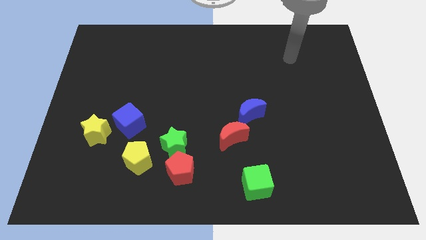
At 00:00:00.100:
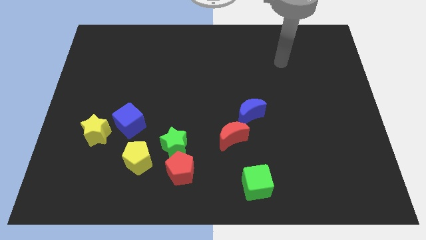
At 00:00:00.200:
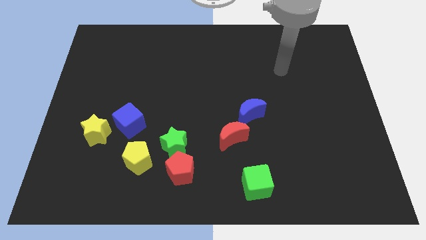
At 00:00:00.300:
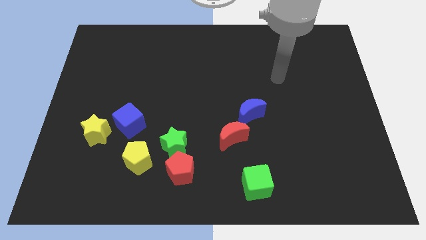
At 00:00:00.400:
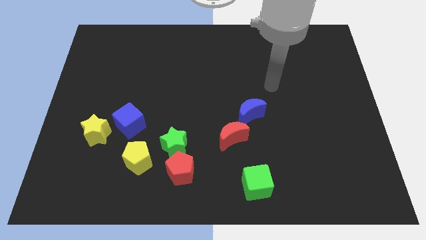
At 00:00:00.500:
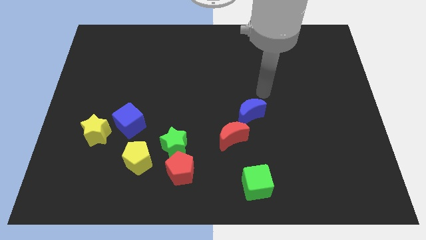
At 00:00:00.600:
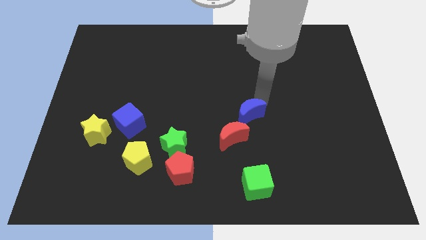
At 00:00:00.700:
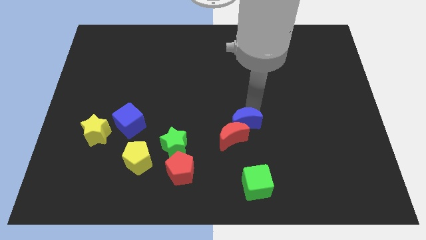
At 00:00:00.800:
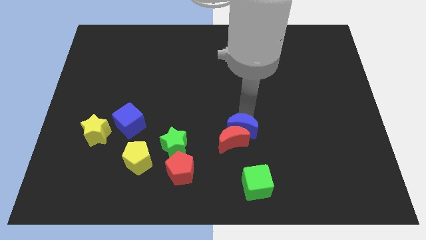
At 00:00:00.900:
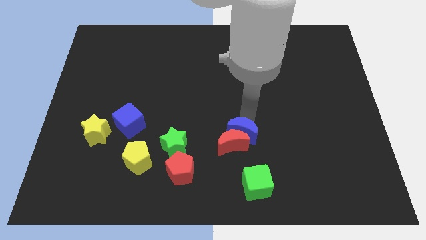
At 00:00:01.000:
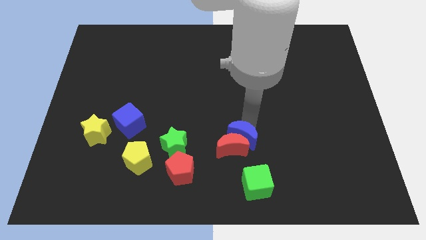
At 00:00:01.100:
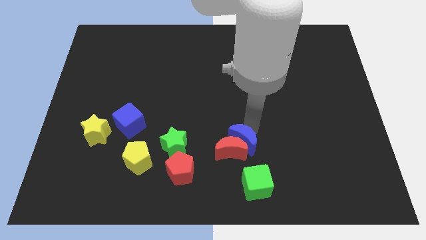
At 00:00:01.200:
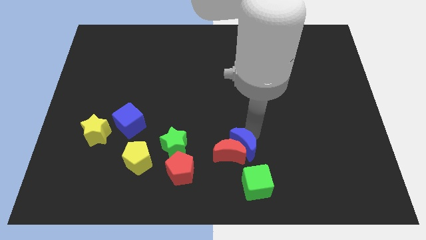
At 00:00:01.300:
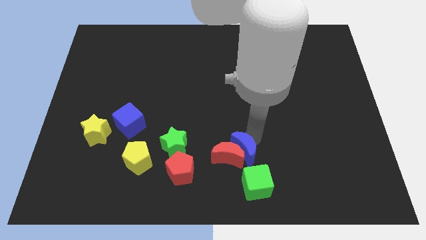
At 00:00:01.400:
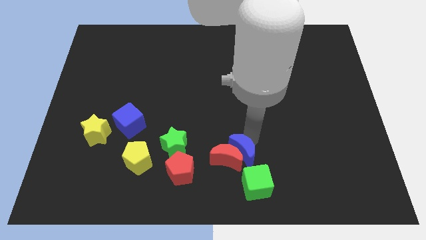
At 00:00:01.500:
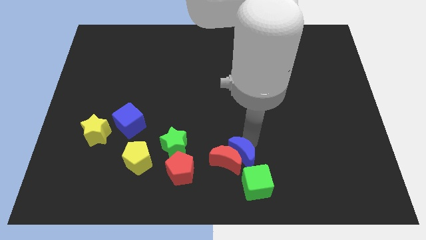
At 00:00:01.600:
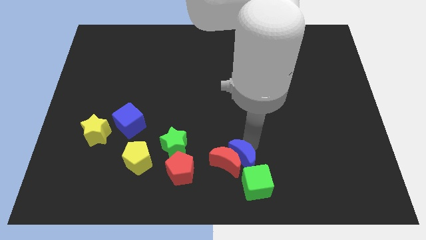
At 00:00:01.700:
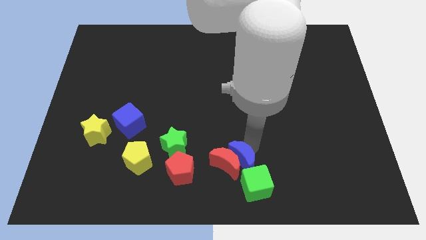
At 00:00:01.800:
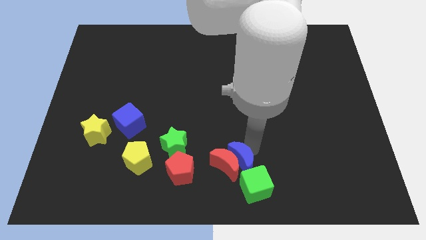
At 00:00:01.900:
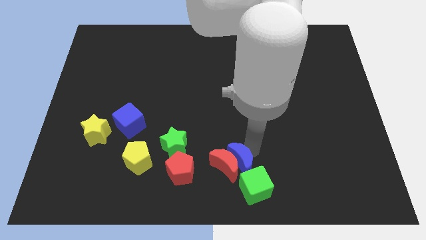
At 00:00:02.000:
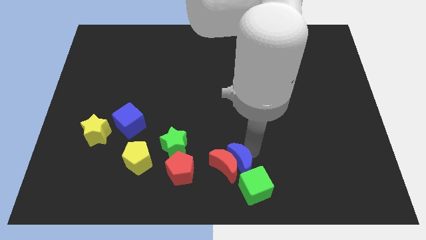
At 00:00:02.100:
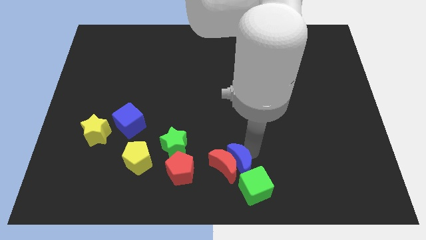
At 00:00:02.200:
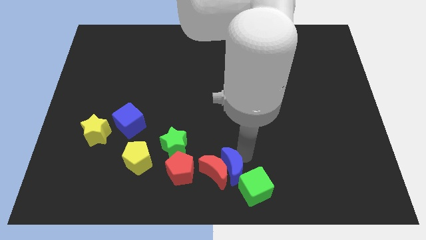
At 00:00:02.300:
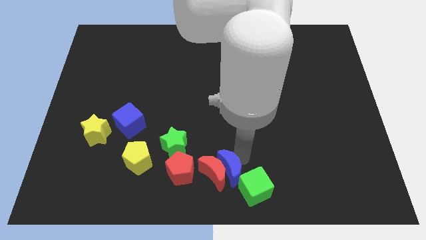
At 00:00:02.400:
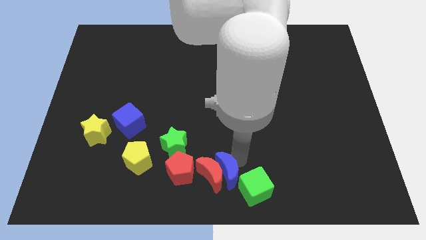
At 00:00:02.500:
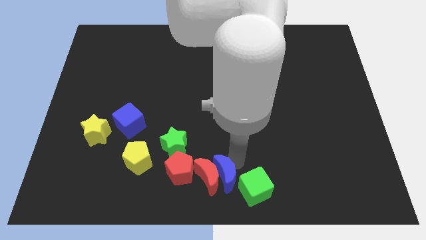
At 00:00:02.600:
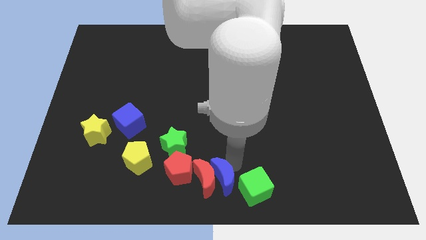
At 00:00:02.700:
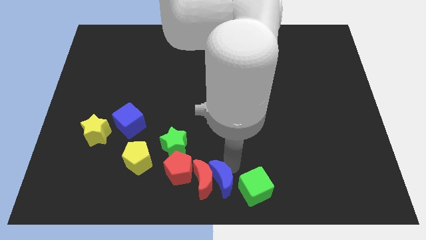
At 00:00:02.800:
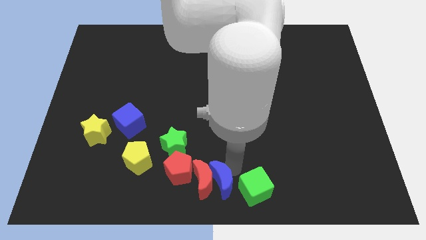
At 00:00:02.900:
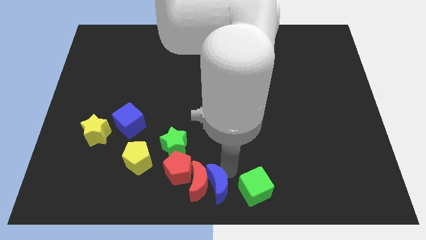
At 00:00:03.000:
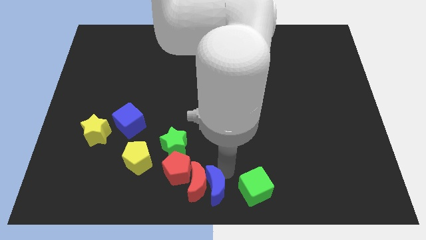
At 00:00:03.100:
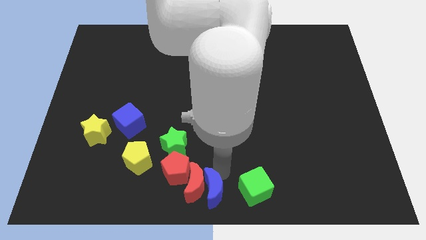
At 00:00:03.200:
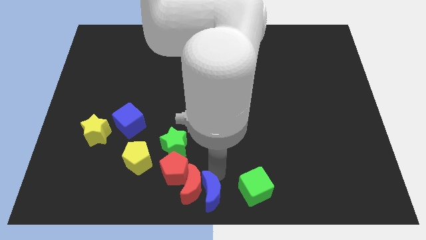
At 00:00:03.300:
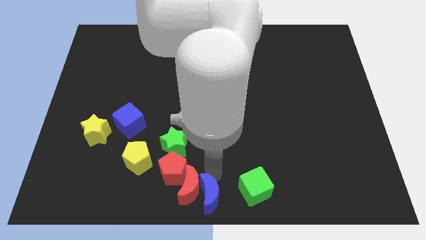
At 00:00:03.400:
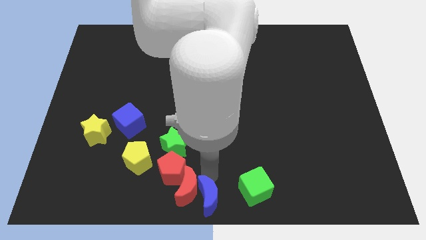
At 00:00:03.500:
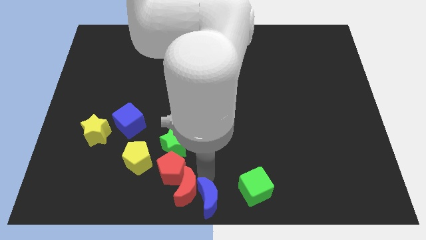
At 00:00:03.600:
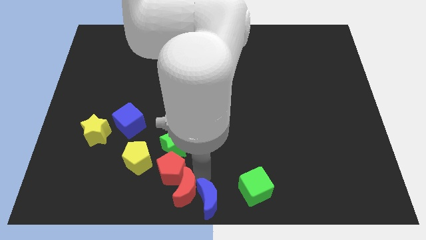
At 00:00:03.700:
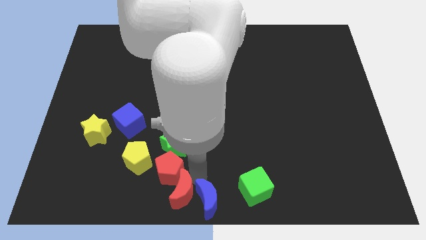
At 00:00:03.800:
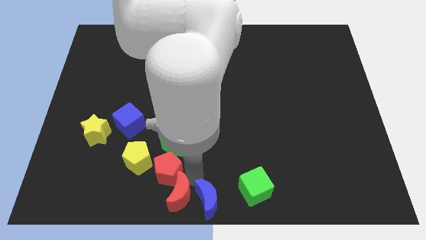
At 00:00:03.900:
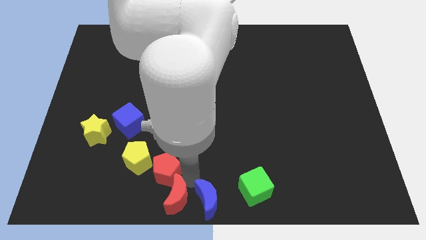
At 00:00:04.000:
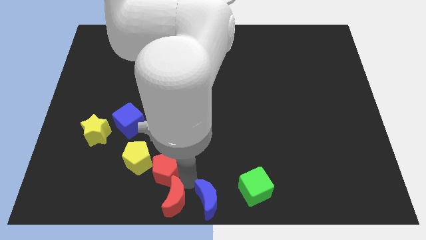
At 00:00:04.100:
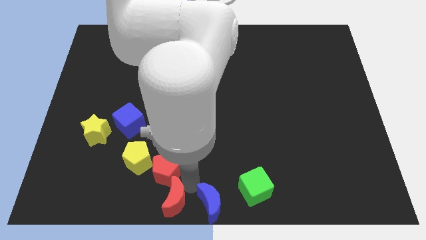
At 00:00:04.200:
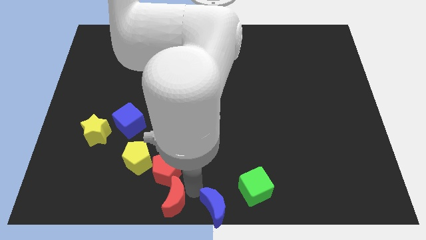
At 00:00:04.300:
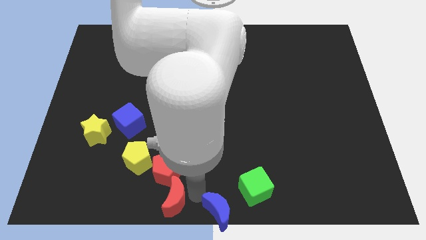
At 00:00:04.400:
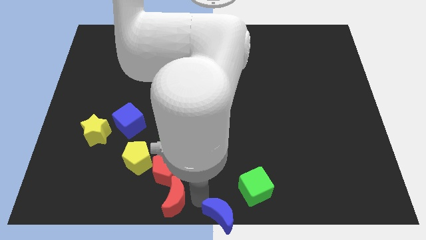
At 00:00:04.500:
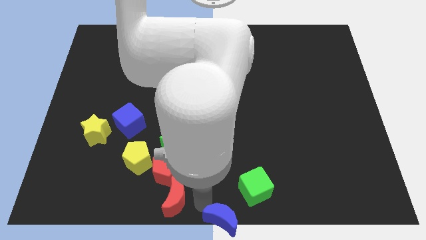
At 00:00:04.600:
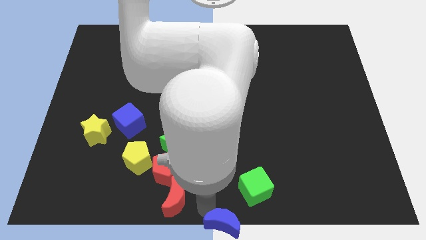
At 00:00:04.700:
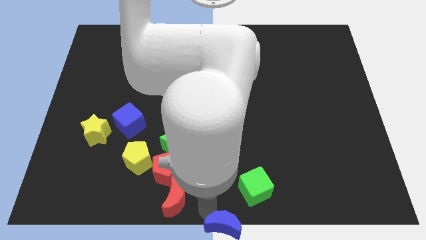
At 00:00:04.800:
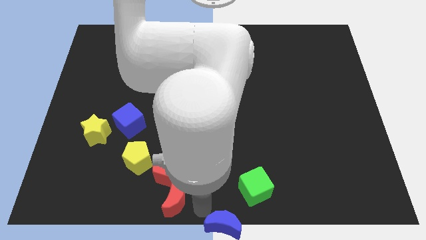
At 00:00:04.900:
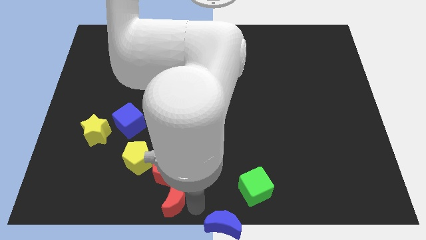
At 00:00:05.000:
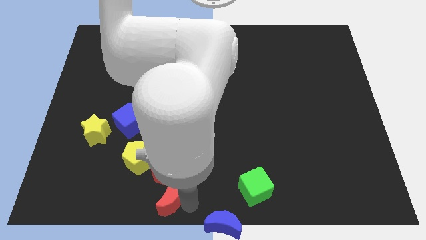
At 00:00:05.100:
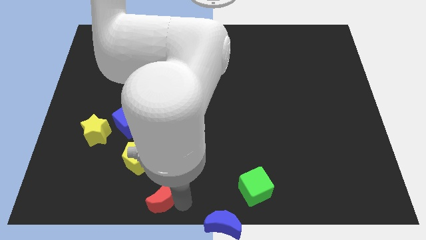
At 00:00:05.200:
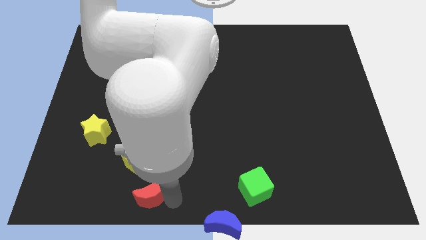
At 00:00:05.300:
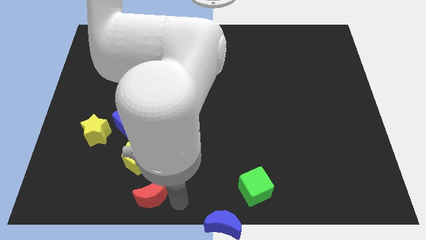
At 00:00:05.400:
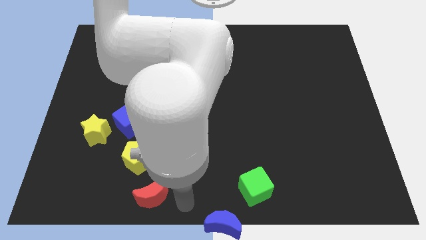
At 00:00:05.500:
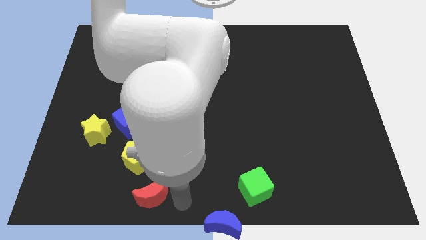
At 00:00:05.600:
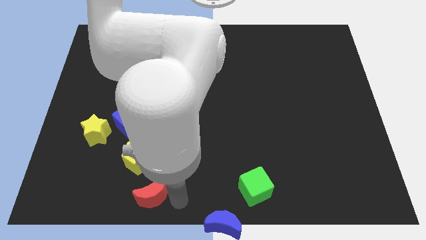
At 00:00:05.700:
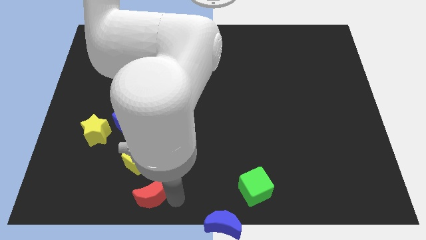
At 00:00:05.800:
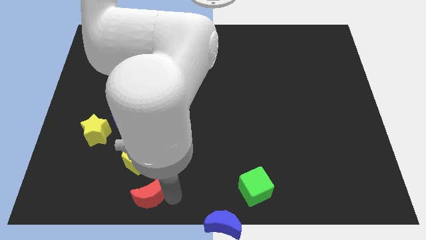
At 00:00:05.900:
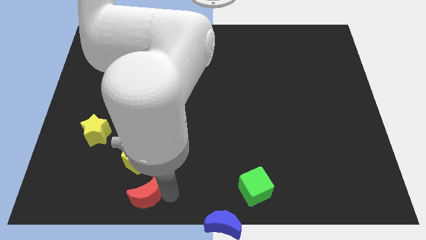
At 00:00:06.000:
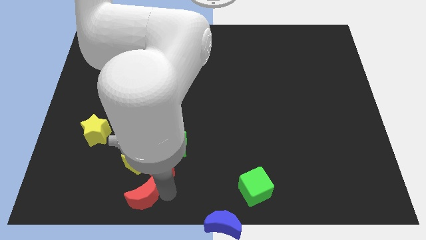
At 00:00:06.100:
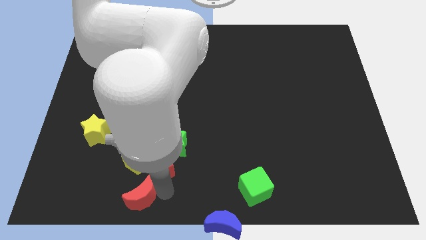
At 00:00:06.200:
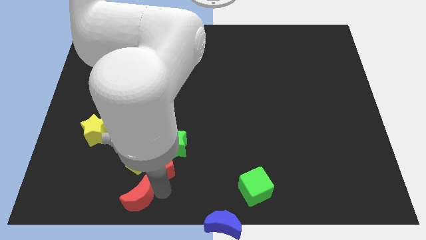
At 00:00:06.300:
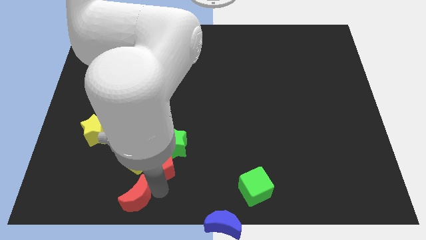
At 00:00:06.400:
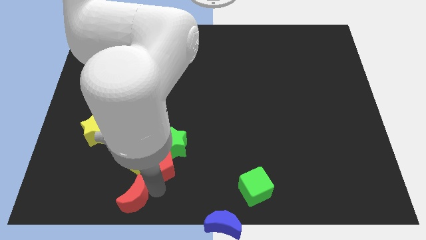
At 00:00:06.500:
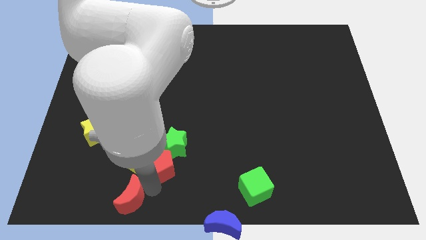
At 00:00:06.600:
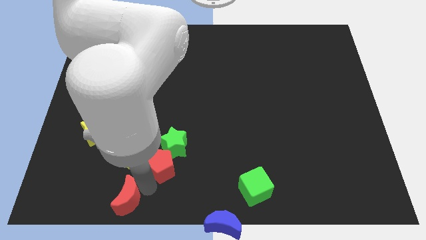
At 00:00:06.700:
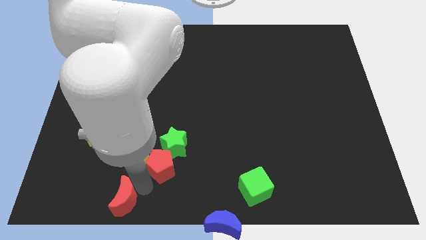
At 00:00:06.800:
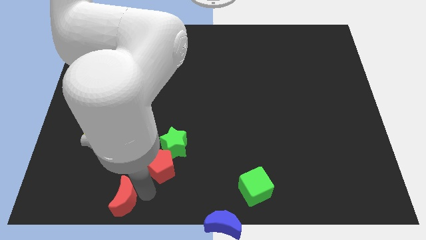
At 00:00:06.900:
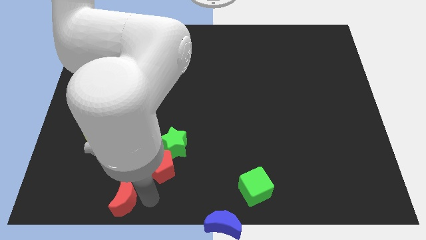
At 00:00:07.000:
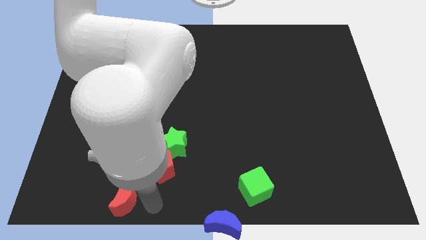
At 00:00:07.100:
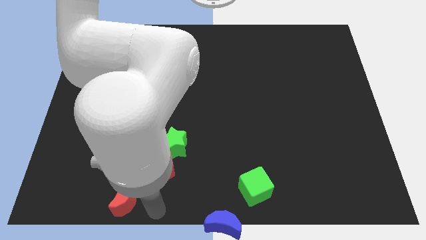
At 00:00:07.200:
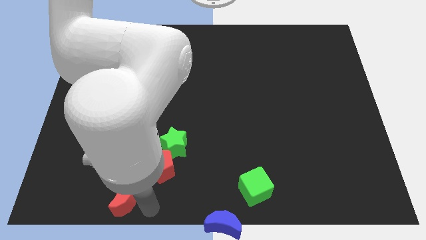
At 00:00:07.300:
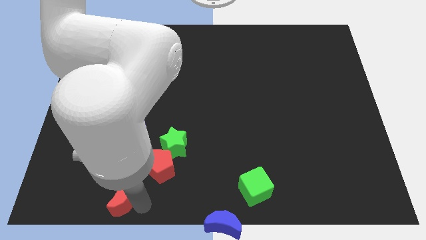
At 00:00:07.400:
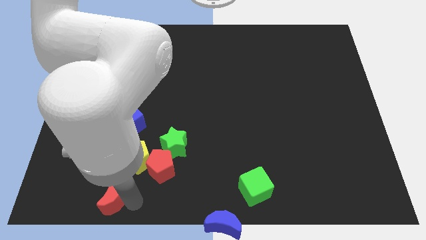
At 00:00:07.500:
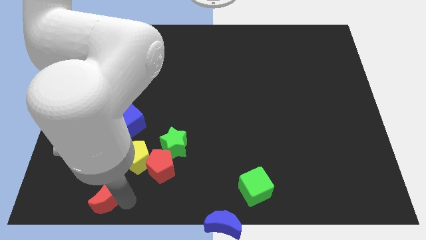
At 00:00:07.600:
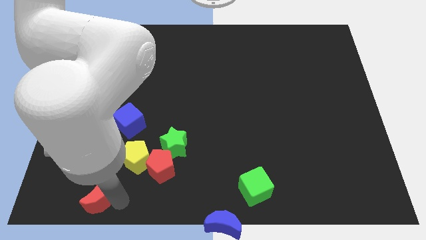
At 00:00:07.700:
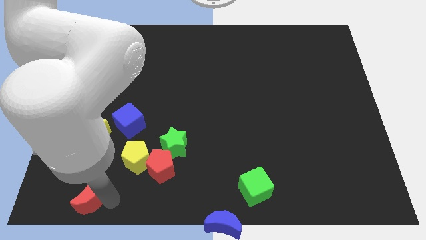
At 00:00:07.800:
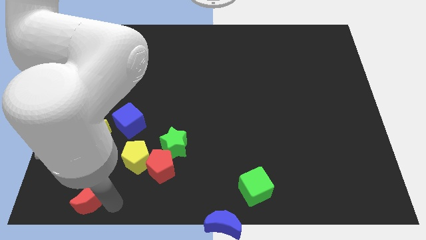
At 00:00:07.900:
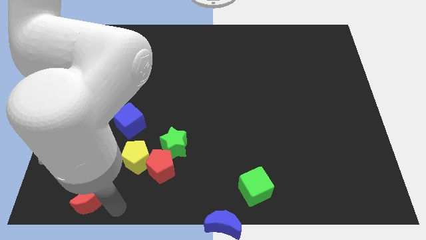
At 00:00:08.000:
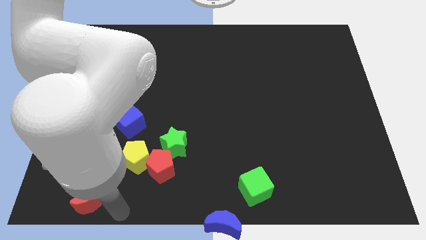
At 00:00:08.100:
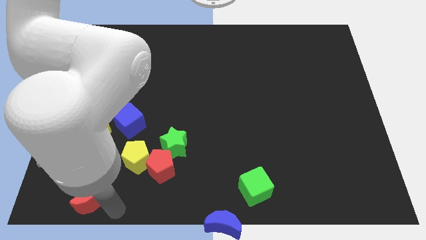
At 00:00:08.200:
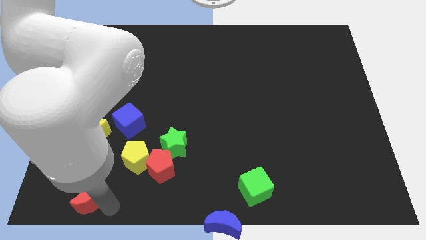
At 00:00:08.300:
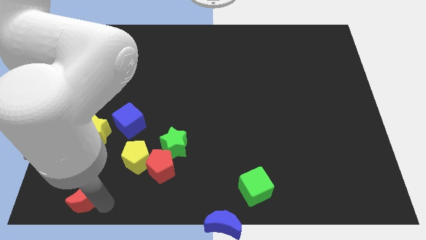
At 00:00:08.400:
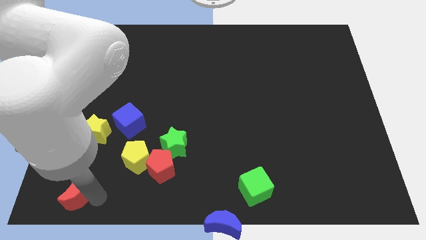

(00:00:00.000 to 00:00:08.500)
slide the red moon to the bottom left of the board
